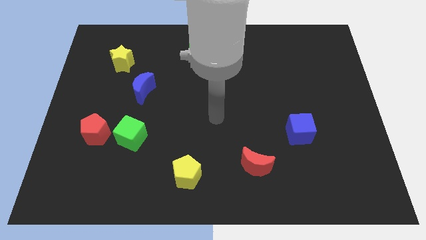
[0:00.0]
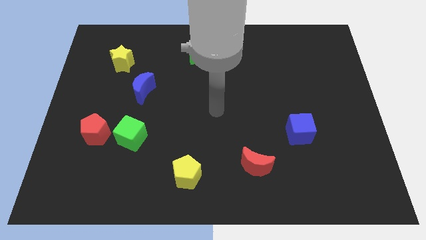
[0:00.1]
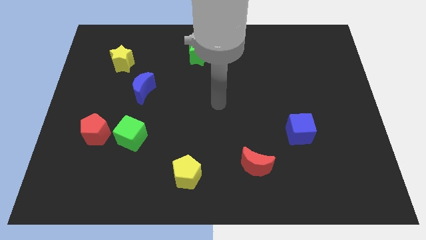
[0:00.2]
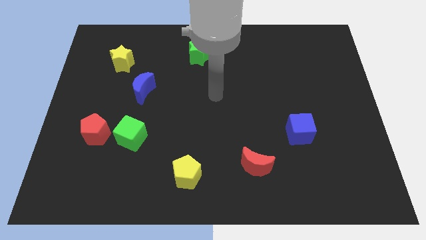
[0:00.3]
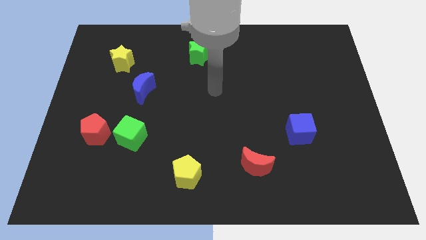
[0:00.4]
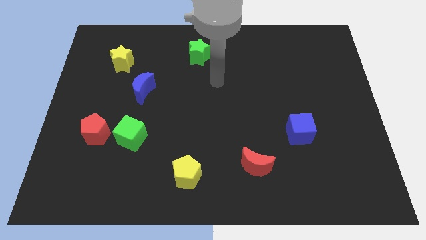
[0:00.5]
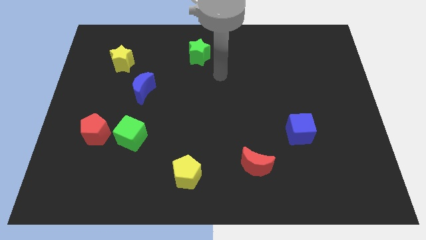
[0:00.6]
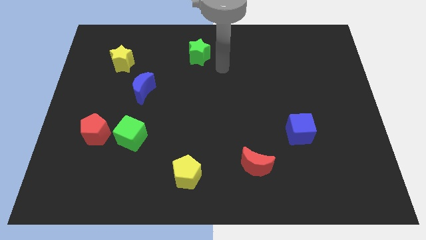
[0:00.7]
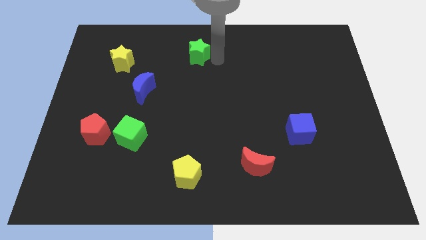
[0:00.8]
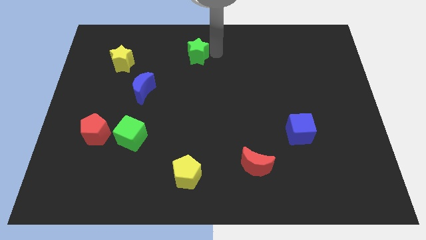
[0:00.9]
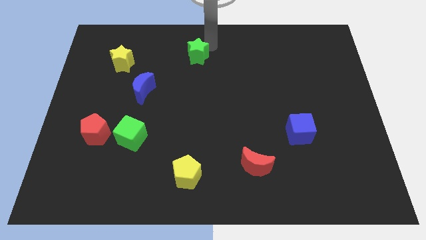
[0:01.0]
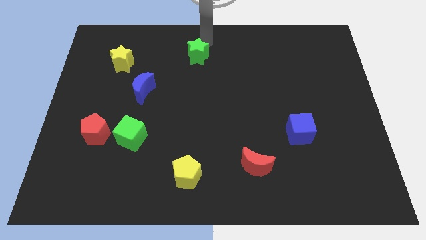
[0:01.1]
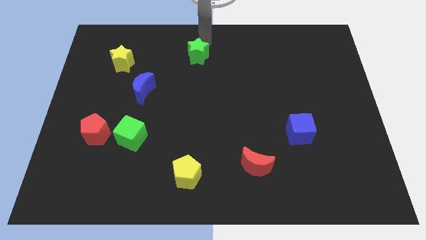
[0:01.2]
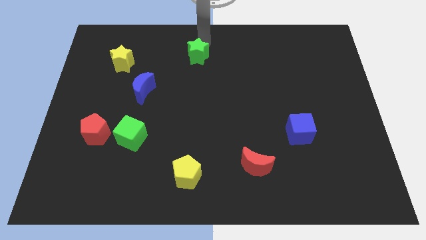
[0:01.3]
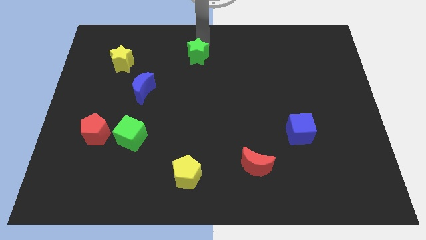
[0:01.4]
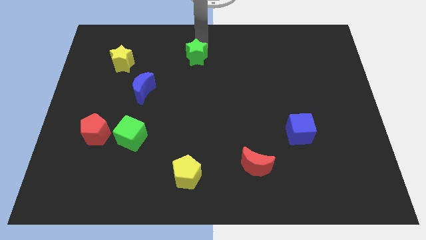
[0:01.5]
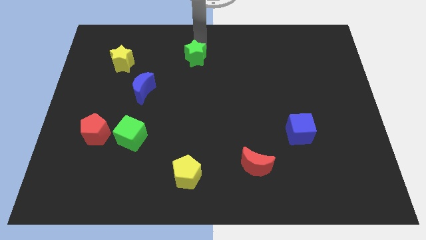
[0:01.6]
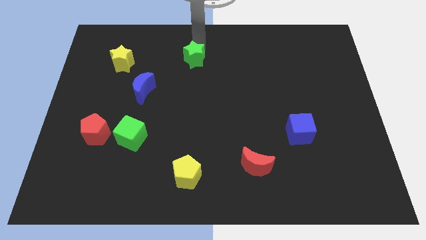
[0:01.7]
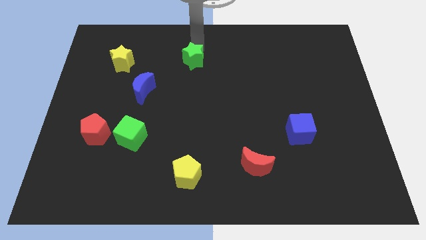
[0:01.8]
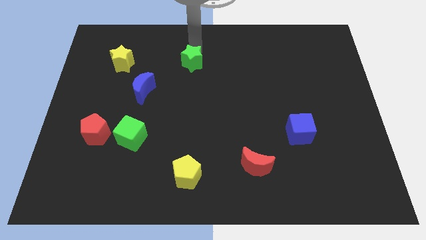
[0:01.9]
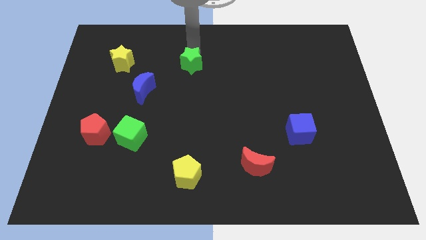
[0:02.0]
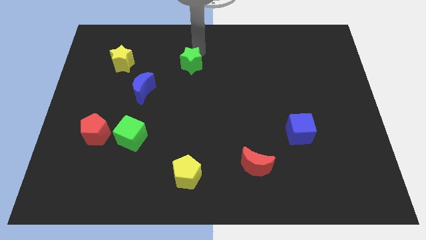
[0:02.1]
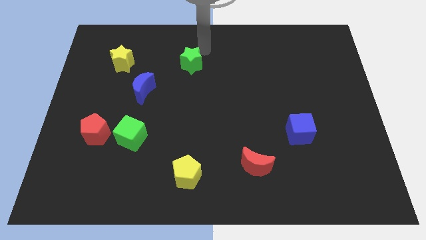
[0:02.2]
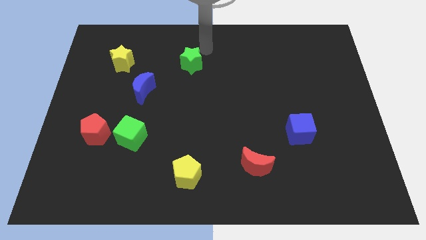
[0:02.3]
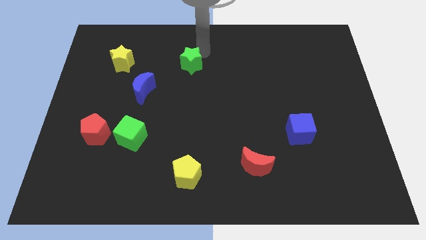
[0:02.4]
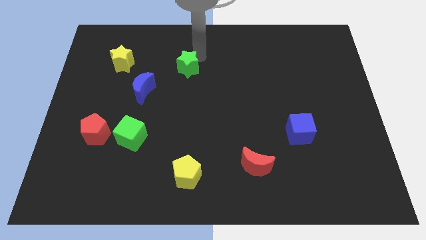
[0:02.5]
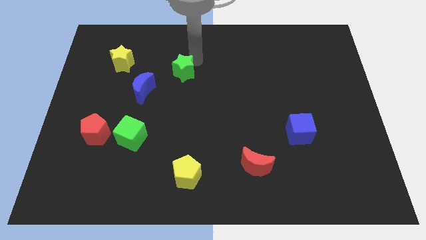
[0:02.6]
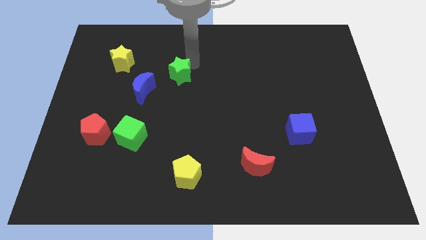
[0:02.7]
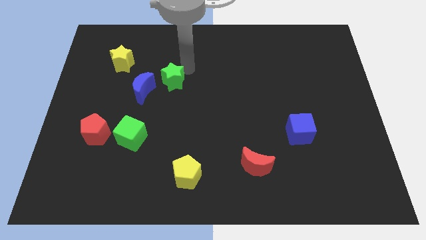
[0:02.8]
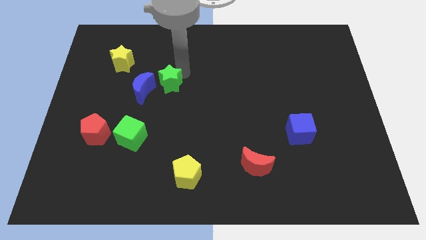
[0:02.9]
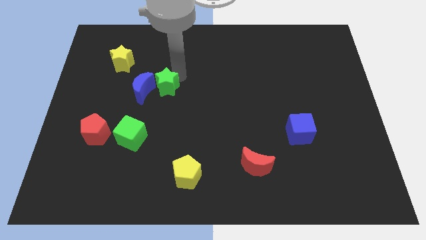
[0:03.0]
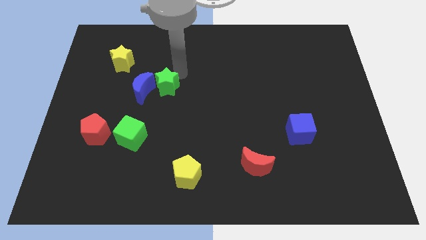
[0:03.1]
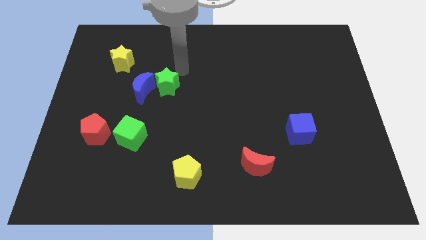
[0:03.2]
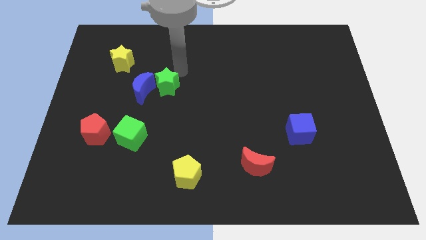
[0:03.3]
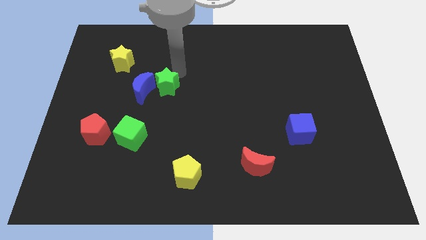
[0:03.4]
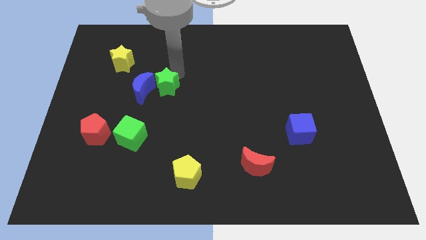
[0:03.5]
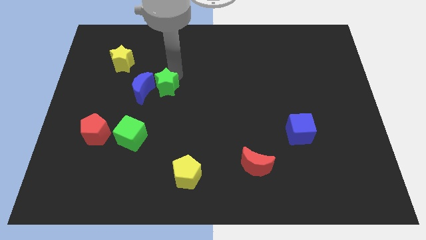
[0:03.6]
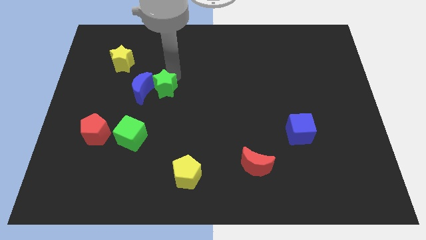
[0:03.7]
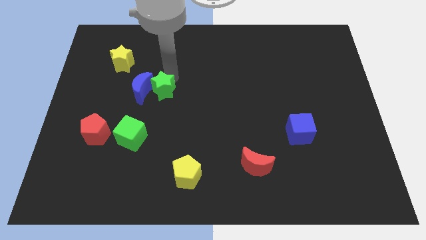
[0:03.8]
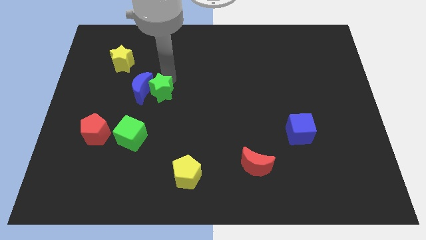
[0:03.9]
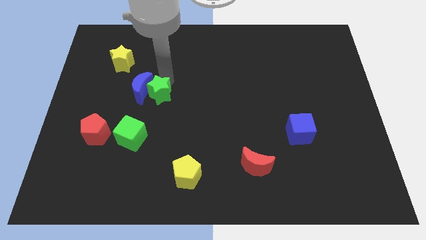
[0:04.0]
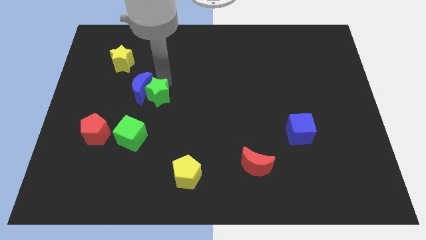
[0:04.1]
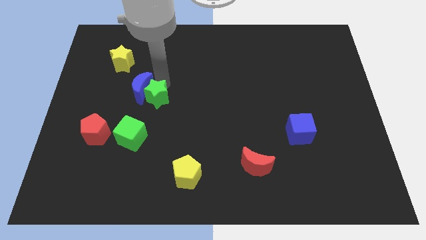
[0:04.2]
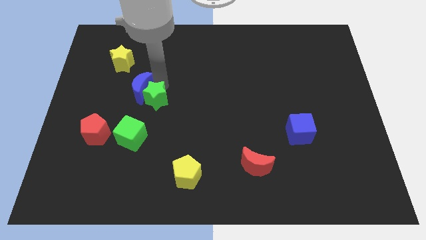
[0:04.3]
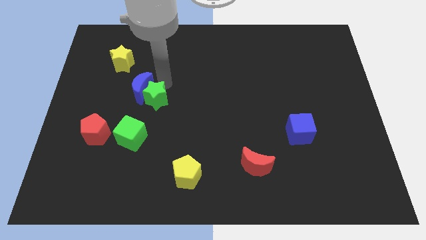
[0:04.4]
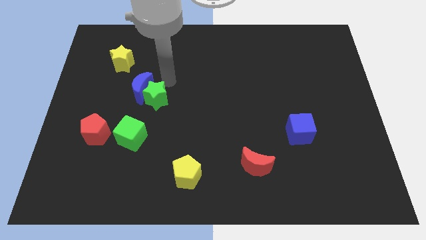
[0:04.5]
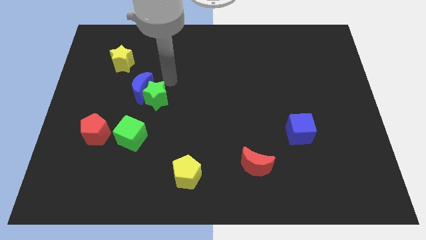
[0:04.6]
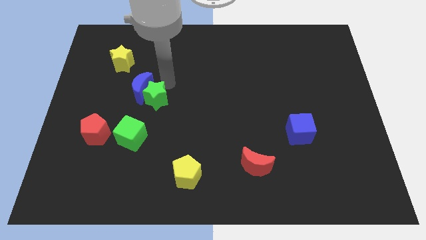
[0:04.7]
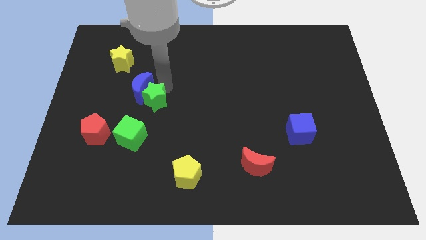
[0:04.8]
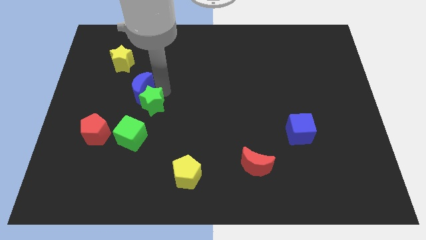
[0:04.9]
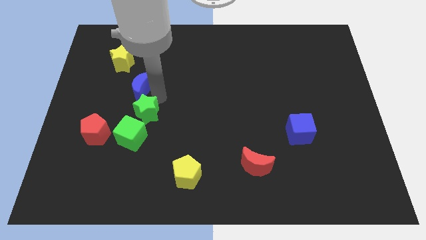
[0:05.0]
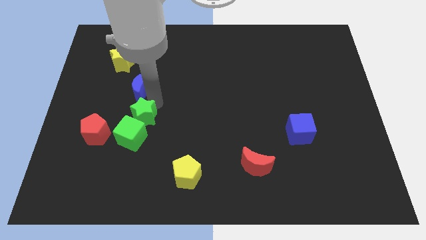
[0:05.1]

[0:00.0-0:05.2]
put the green star towards the green cube

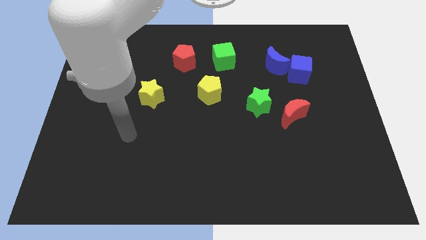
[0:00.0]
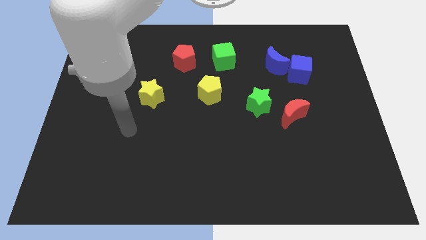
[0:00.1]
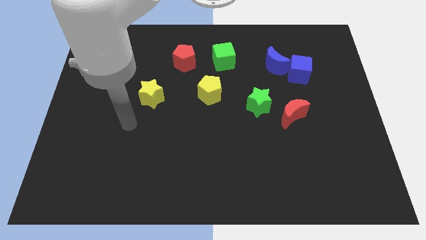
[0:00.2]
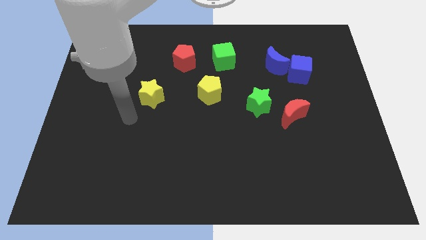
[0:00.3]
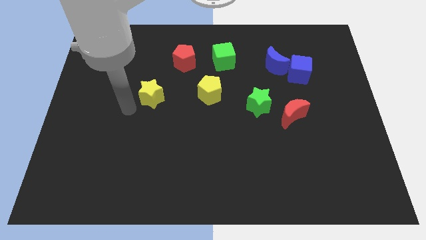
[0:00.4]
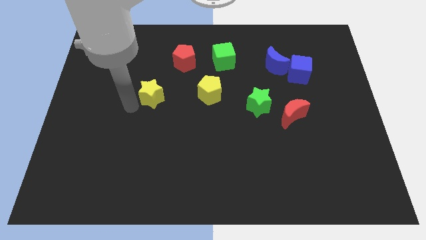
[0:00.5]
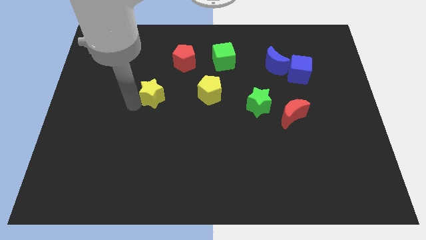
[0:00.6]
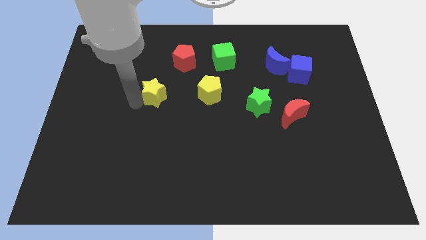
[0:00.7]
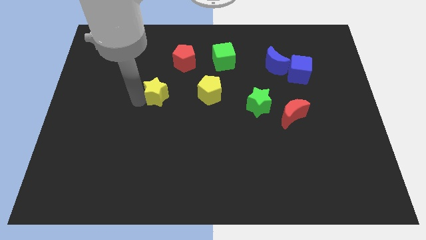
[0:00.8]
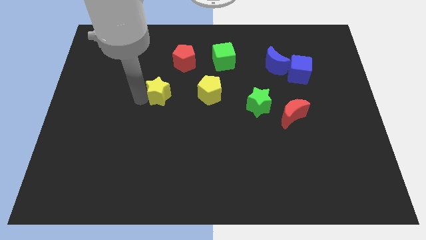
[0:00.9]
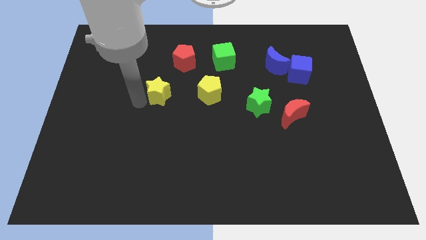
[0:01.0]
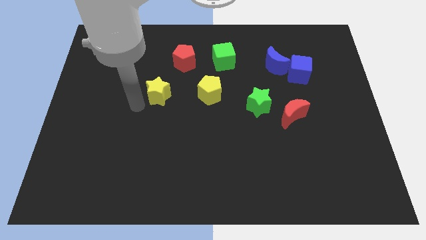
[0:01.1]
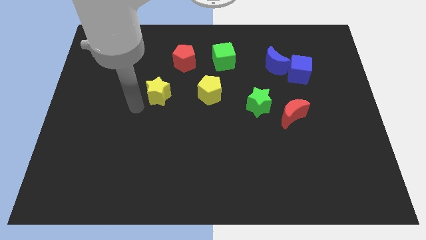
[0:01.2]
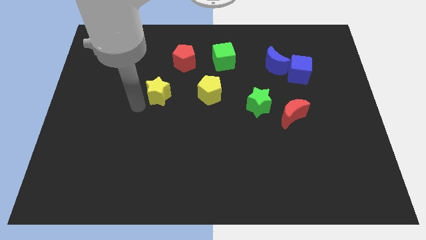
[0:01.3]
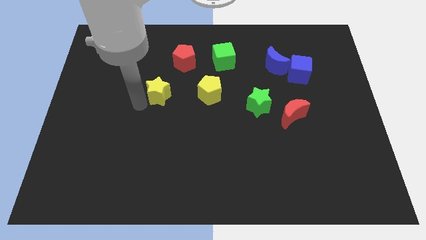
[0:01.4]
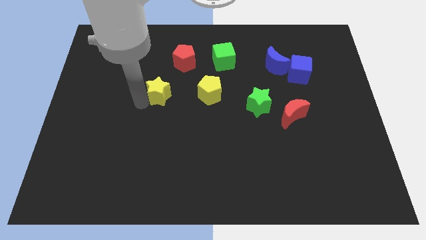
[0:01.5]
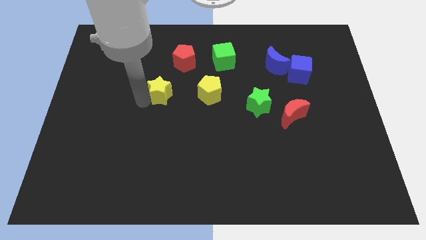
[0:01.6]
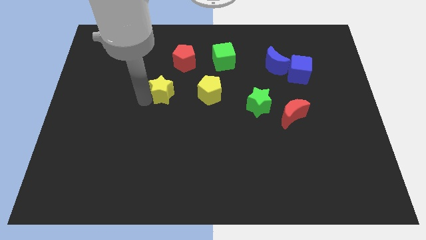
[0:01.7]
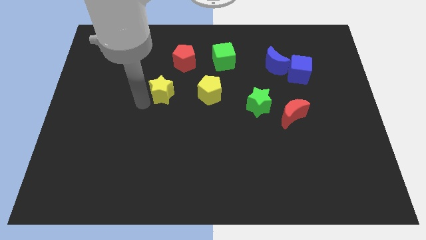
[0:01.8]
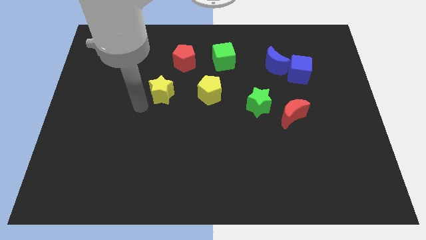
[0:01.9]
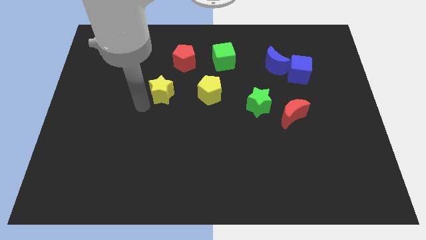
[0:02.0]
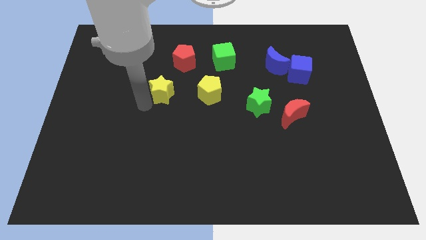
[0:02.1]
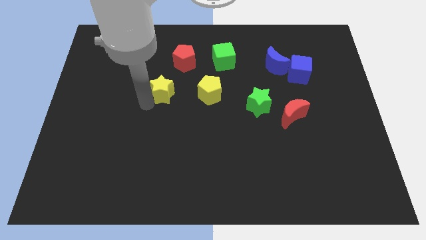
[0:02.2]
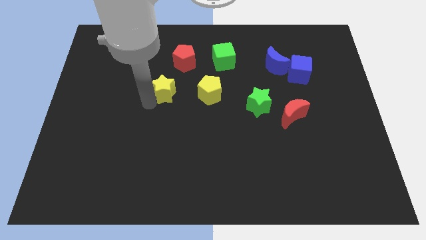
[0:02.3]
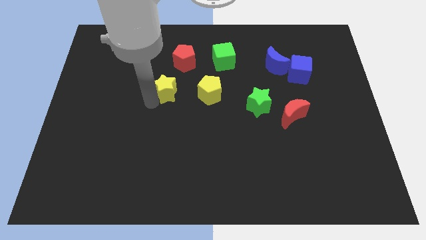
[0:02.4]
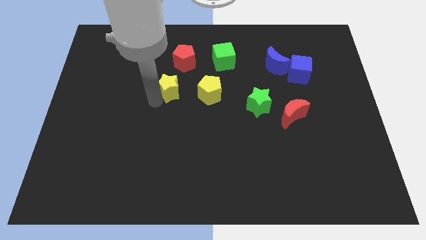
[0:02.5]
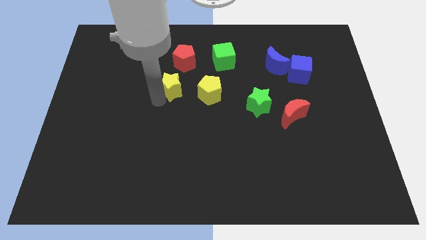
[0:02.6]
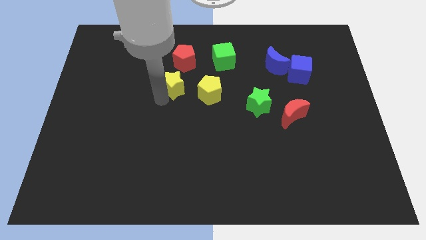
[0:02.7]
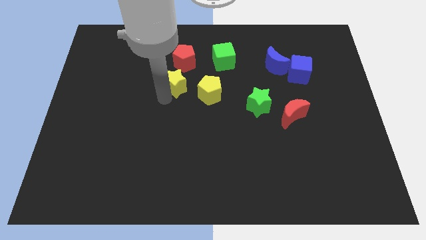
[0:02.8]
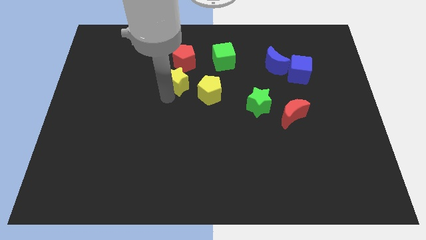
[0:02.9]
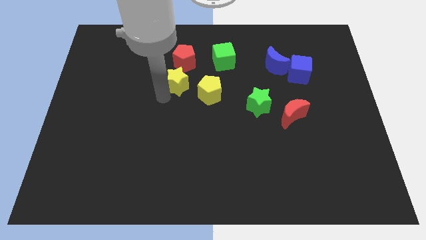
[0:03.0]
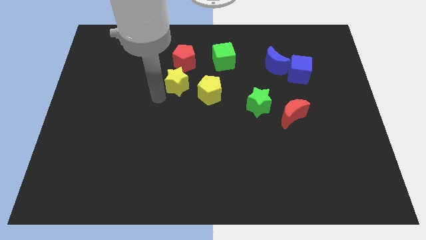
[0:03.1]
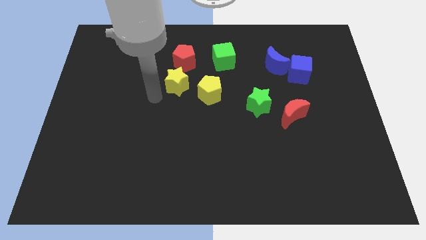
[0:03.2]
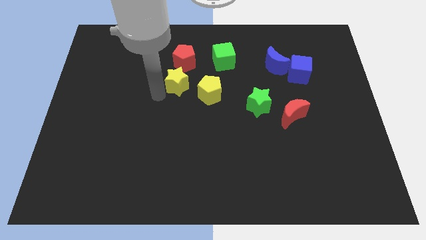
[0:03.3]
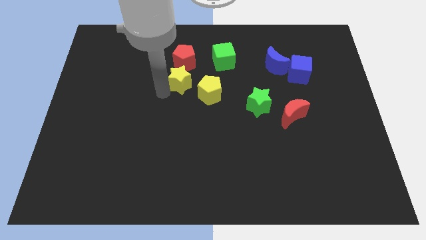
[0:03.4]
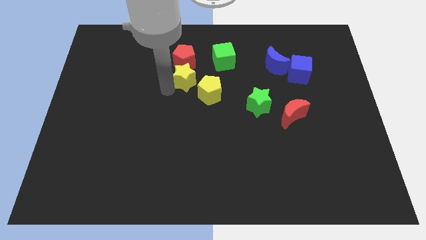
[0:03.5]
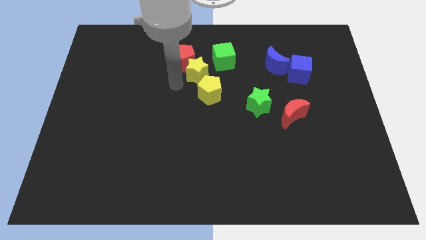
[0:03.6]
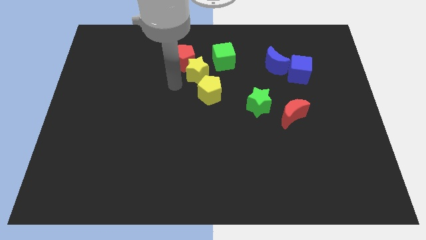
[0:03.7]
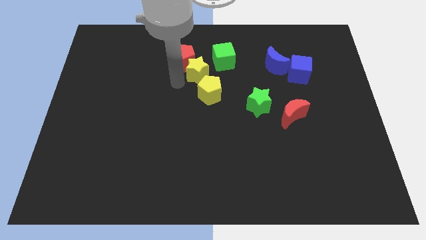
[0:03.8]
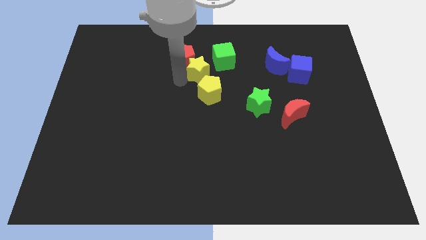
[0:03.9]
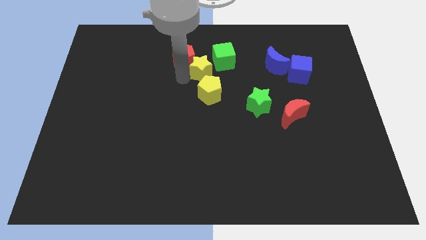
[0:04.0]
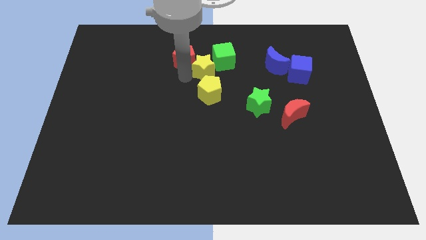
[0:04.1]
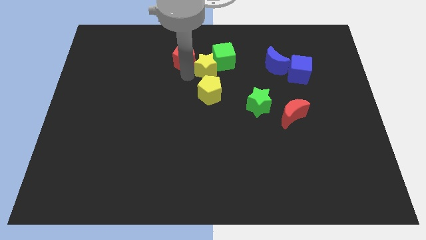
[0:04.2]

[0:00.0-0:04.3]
push the yellow star next to the green cube
